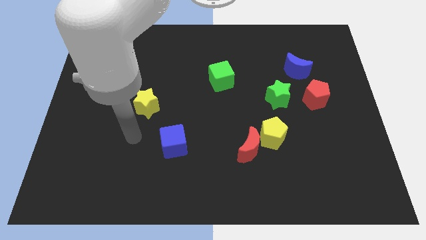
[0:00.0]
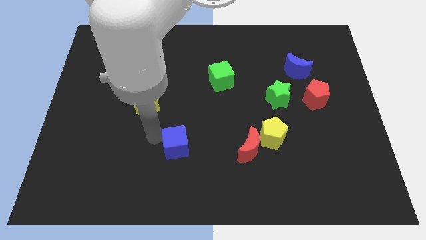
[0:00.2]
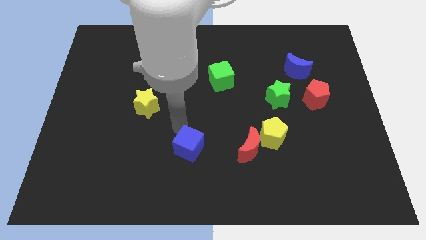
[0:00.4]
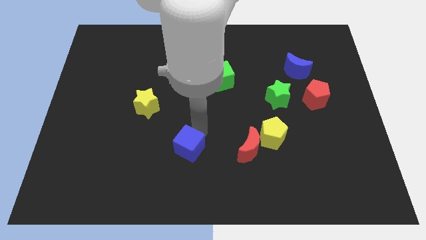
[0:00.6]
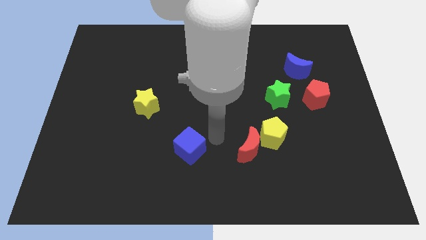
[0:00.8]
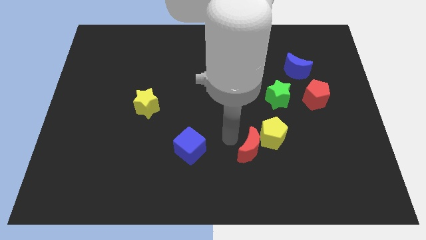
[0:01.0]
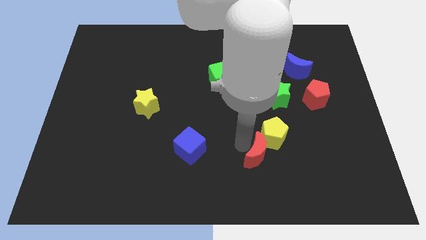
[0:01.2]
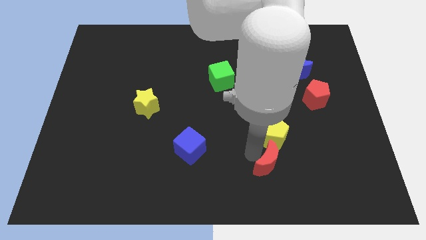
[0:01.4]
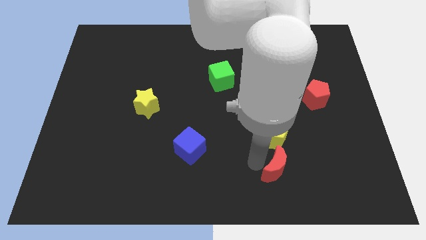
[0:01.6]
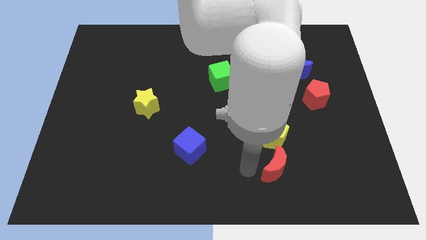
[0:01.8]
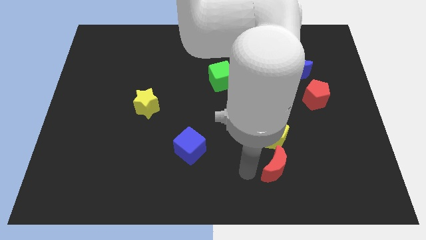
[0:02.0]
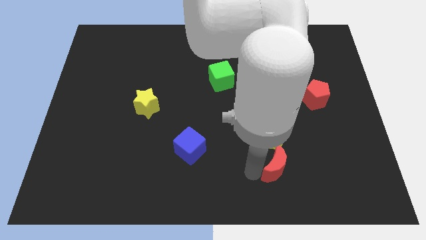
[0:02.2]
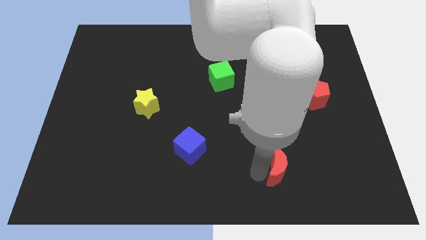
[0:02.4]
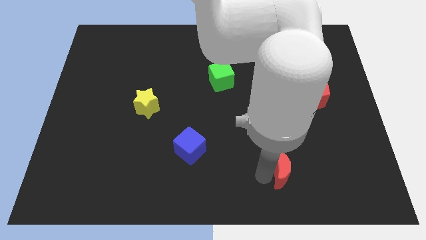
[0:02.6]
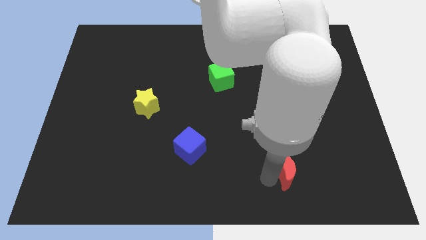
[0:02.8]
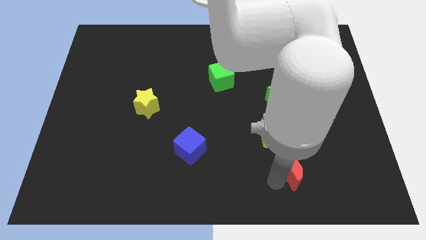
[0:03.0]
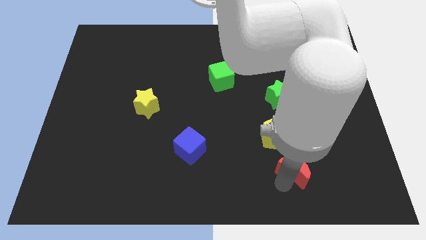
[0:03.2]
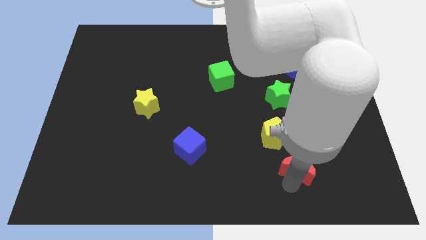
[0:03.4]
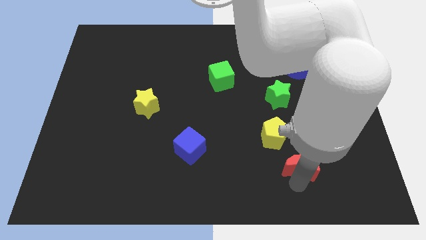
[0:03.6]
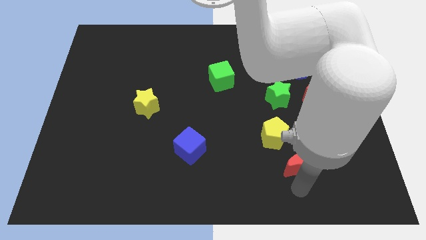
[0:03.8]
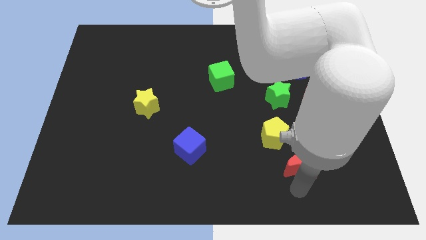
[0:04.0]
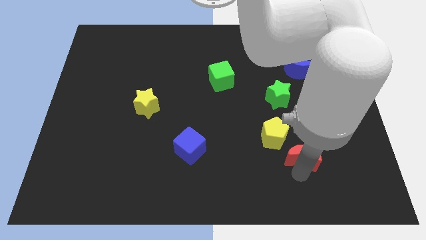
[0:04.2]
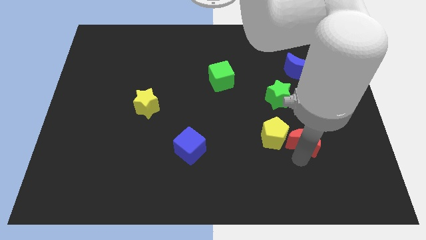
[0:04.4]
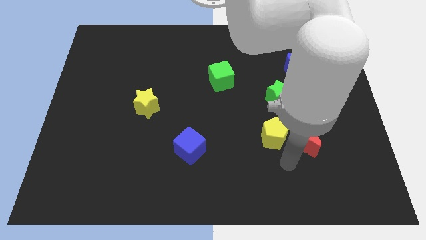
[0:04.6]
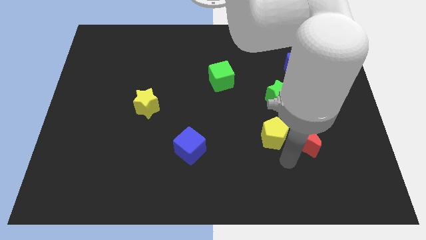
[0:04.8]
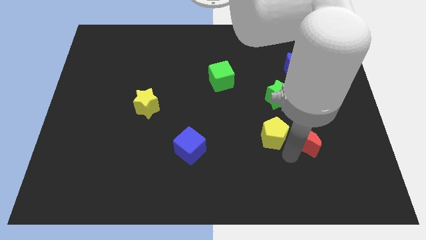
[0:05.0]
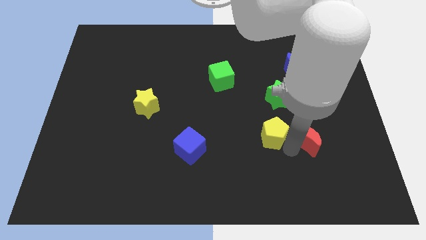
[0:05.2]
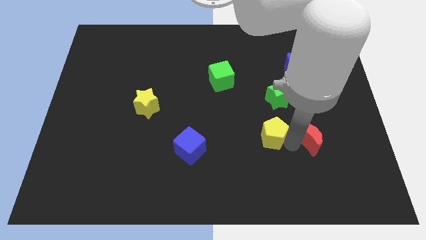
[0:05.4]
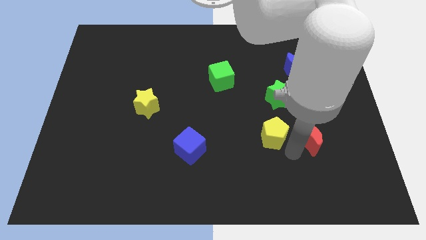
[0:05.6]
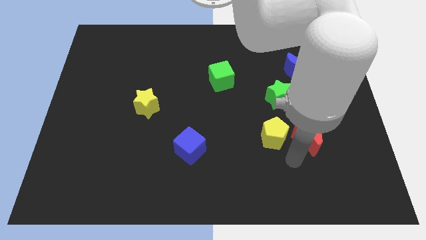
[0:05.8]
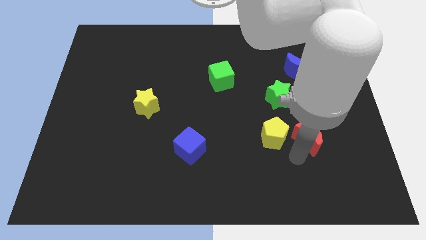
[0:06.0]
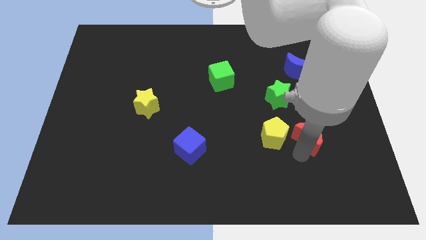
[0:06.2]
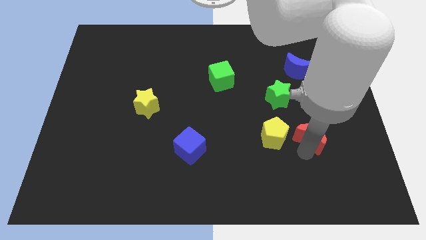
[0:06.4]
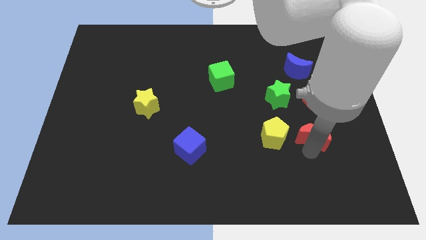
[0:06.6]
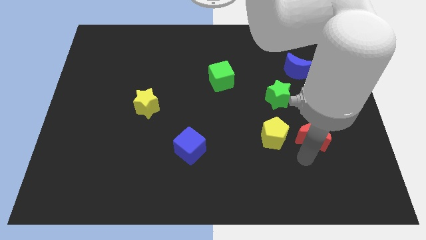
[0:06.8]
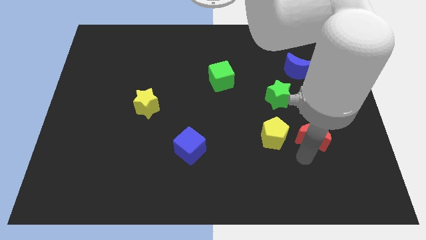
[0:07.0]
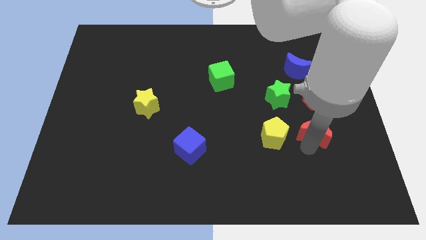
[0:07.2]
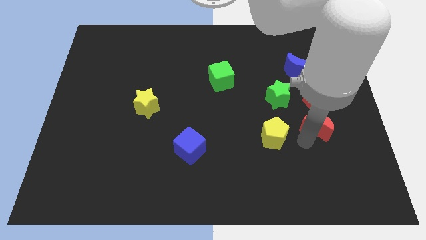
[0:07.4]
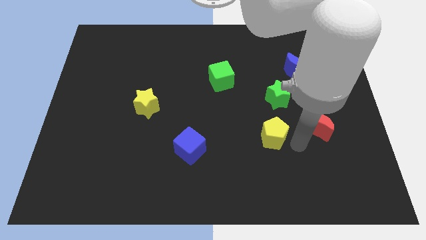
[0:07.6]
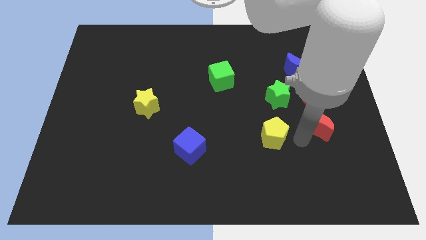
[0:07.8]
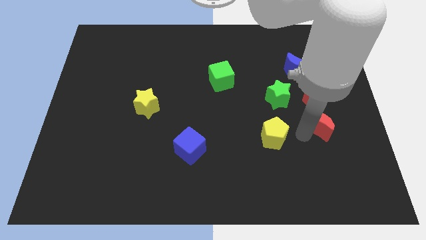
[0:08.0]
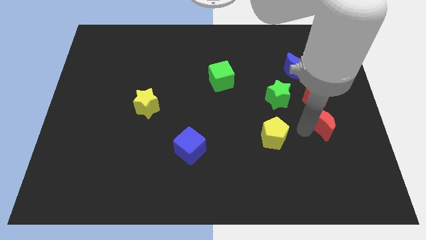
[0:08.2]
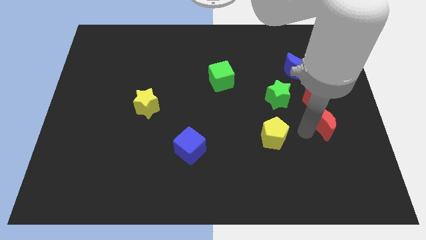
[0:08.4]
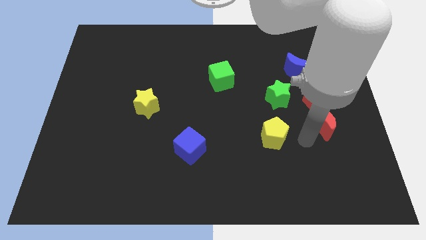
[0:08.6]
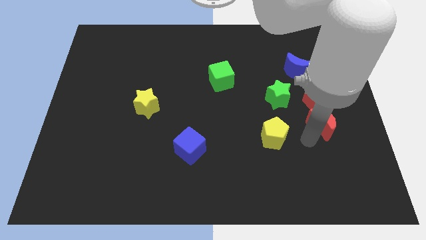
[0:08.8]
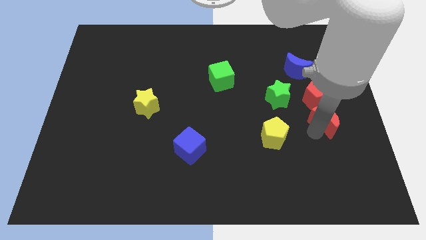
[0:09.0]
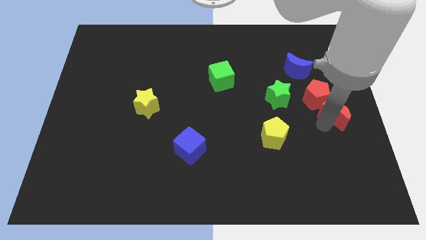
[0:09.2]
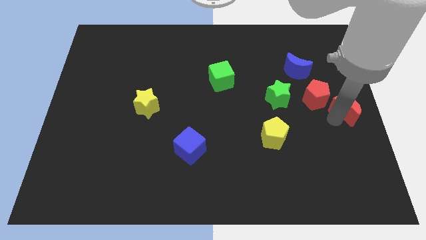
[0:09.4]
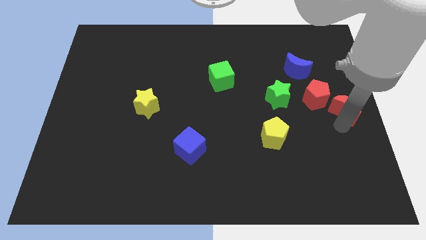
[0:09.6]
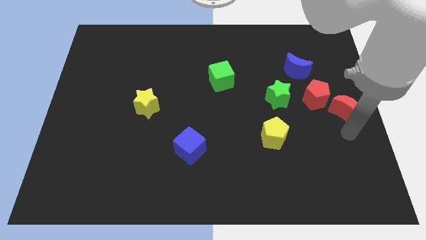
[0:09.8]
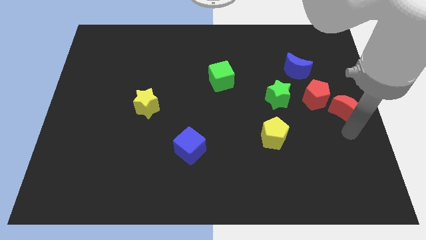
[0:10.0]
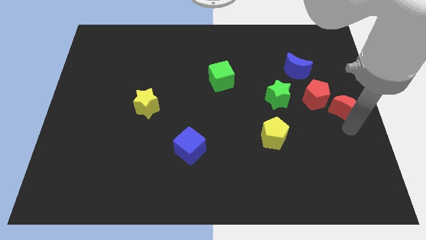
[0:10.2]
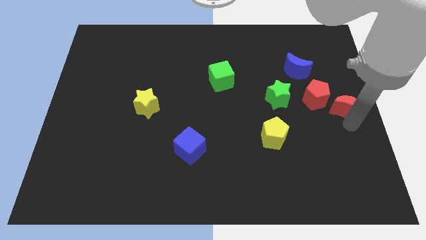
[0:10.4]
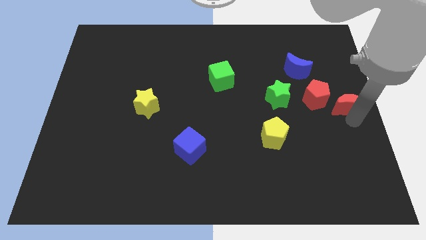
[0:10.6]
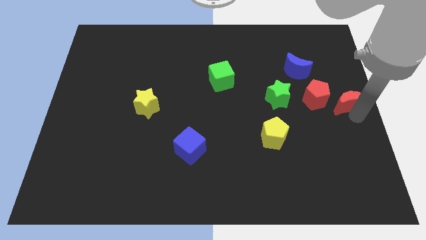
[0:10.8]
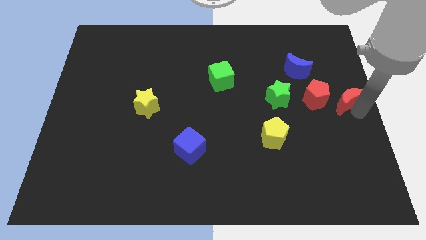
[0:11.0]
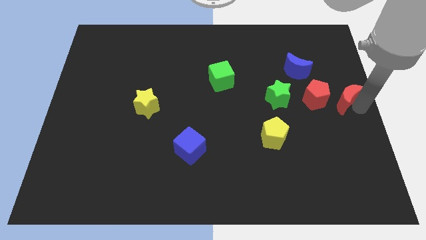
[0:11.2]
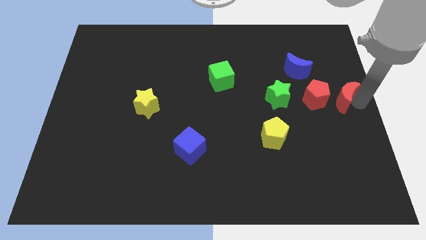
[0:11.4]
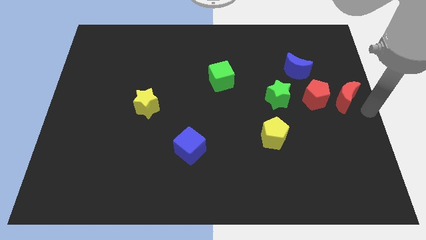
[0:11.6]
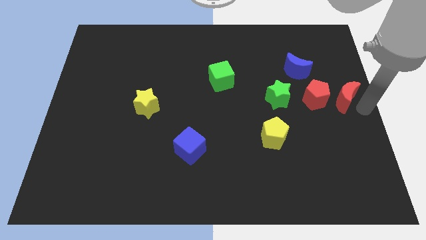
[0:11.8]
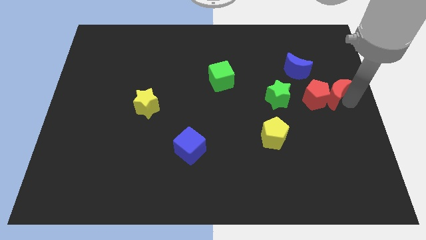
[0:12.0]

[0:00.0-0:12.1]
put the red moon to the bottom right of the blue moon

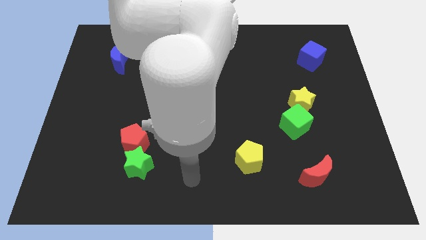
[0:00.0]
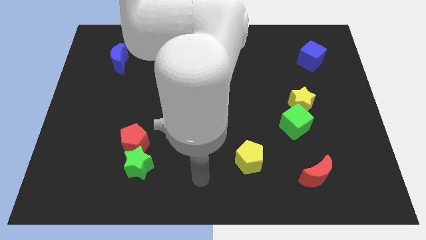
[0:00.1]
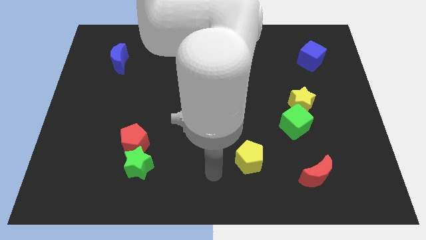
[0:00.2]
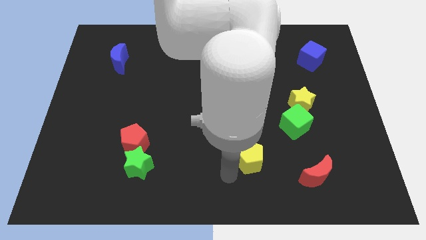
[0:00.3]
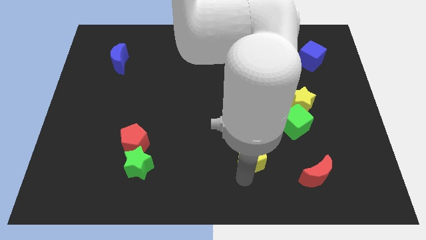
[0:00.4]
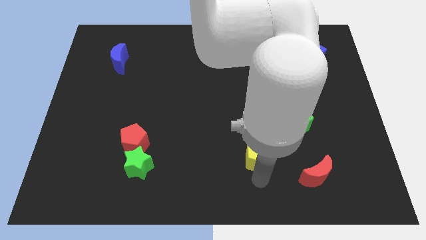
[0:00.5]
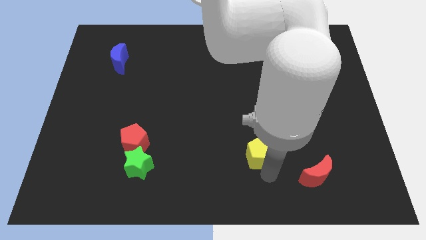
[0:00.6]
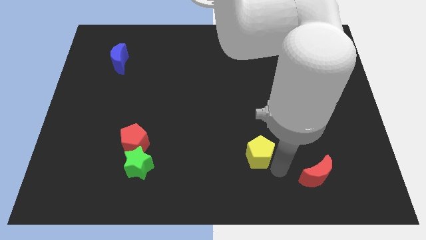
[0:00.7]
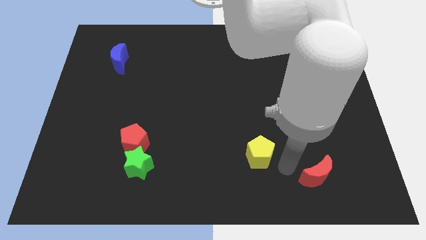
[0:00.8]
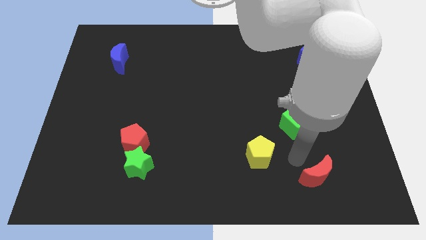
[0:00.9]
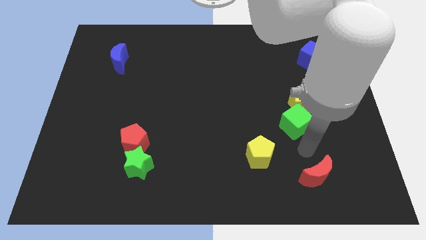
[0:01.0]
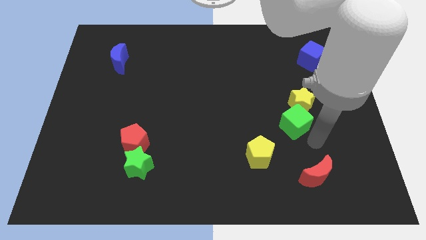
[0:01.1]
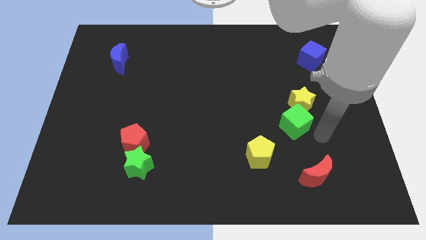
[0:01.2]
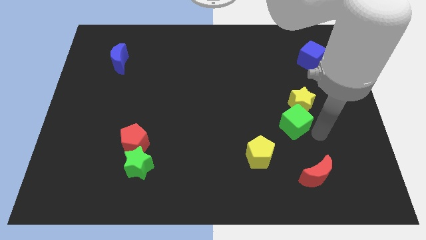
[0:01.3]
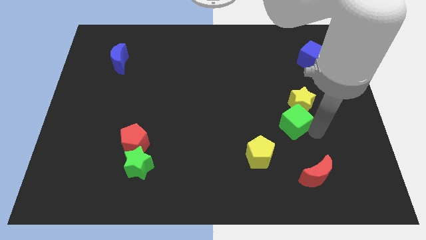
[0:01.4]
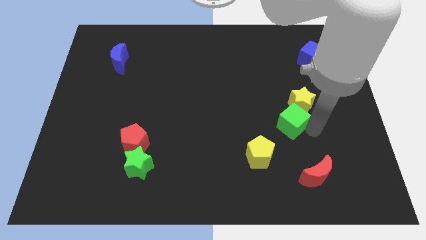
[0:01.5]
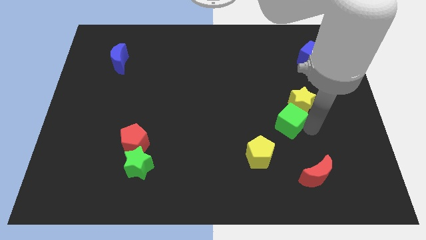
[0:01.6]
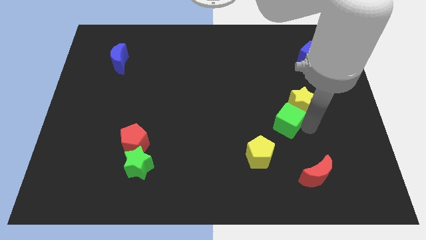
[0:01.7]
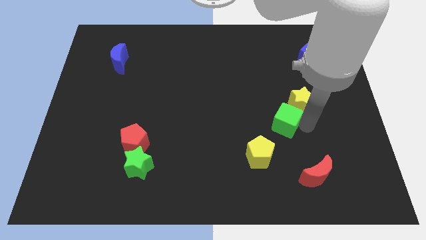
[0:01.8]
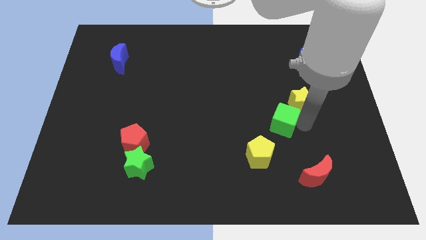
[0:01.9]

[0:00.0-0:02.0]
move the green cube left of the yellow star
